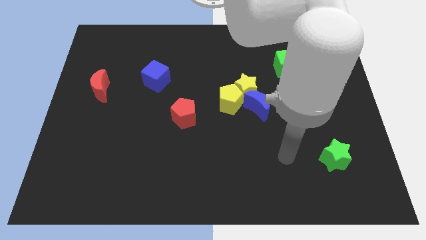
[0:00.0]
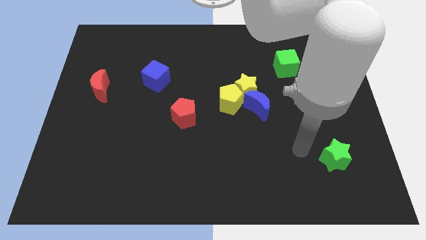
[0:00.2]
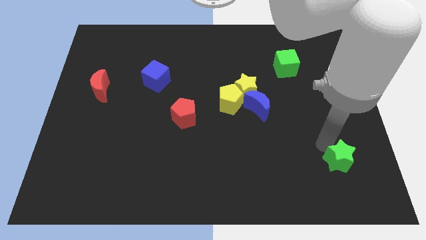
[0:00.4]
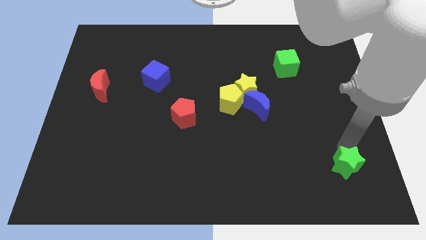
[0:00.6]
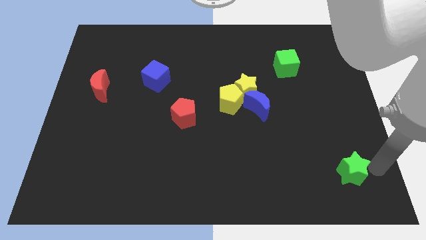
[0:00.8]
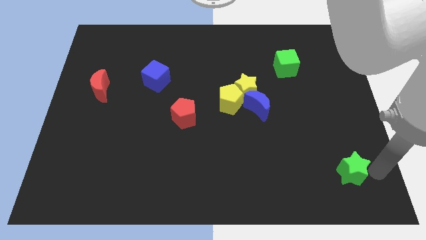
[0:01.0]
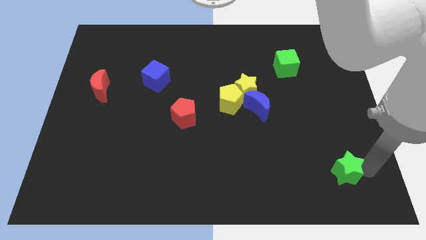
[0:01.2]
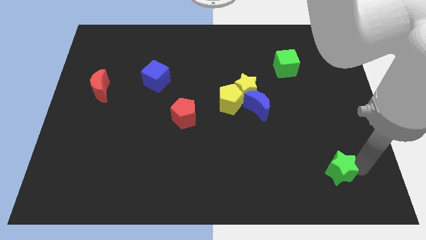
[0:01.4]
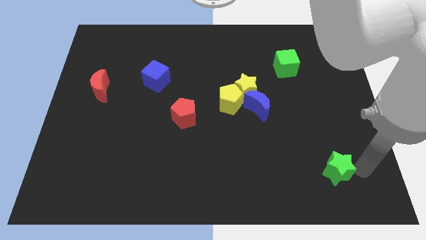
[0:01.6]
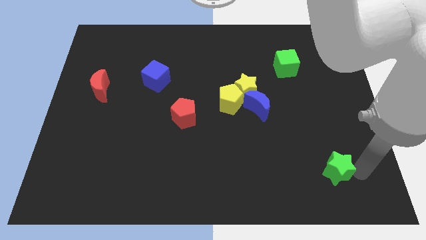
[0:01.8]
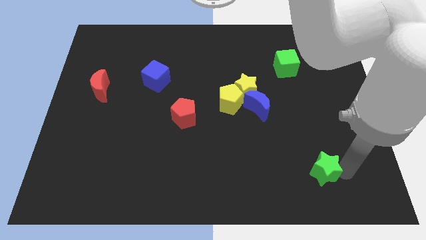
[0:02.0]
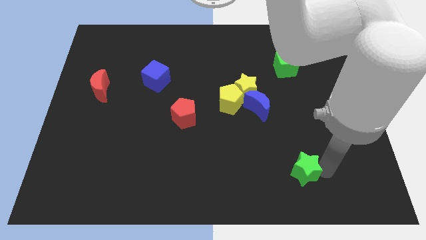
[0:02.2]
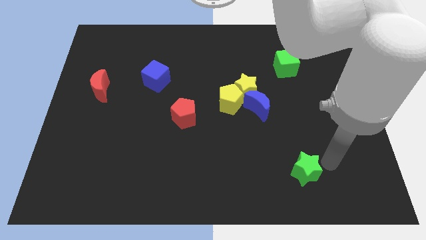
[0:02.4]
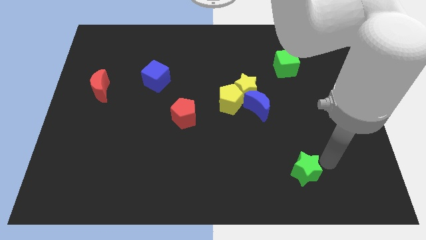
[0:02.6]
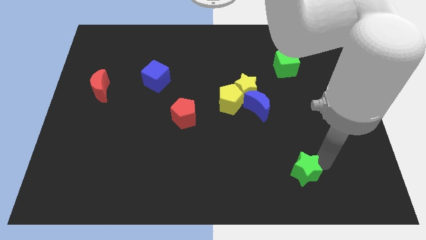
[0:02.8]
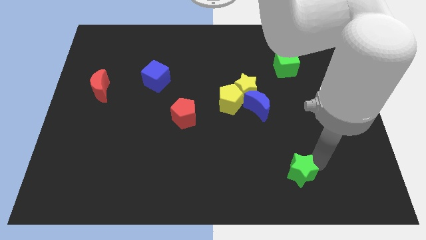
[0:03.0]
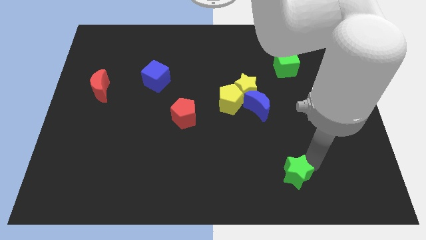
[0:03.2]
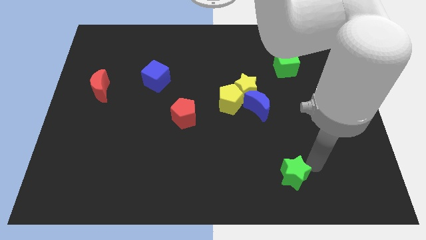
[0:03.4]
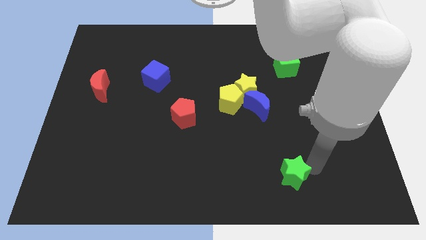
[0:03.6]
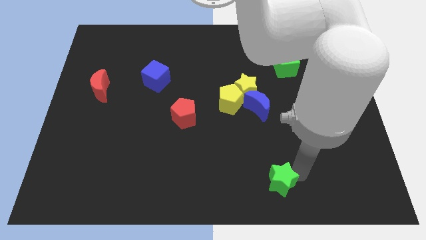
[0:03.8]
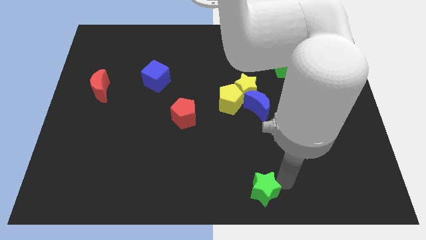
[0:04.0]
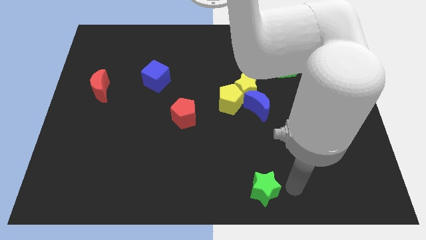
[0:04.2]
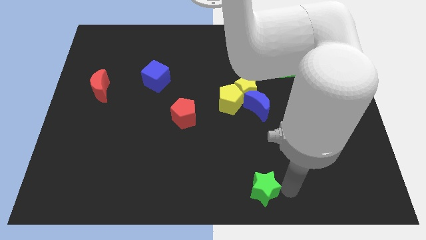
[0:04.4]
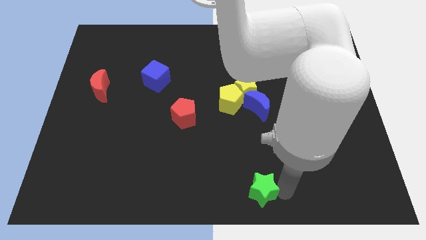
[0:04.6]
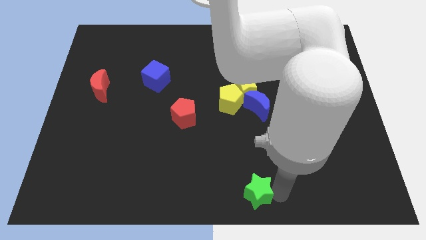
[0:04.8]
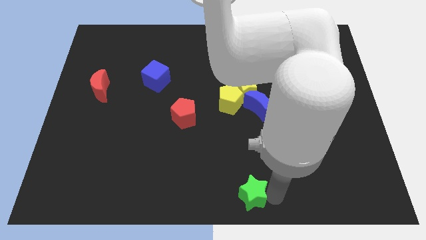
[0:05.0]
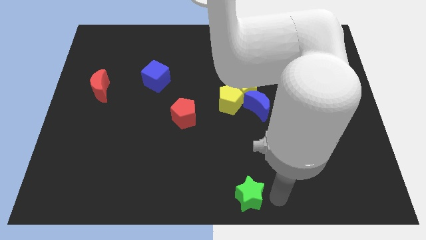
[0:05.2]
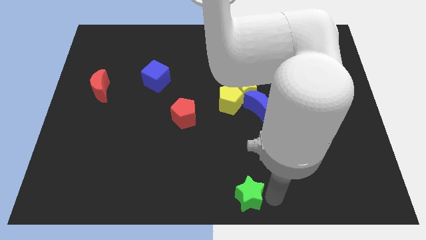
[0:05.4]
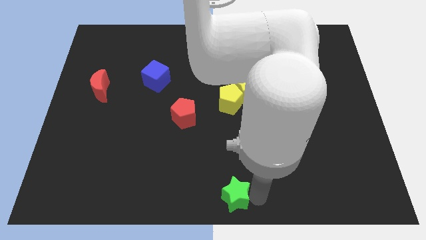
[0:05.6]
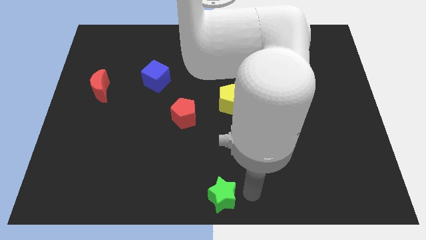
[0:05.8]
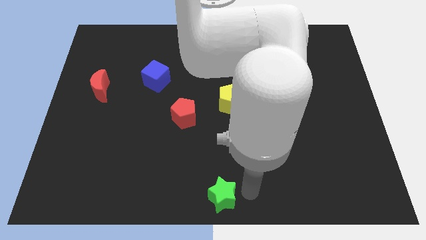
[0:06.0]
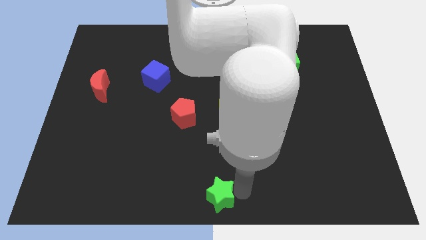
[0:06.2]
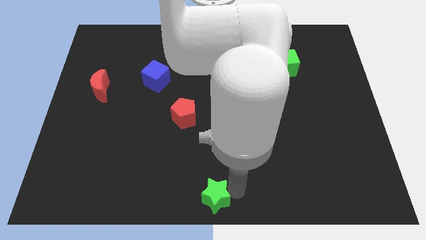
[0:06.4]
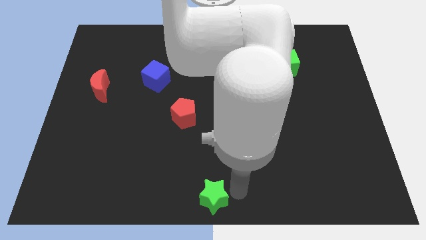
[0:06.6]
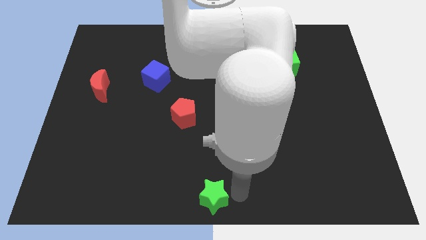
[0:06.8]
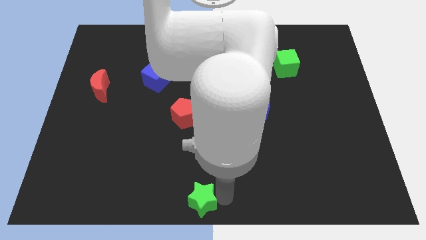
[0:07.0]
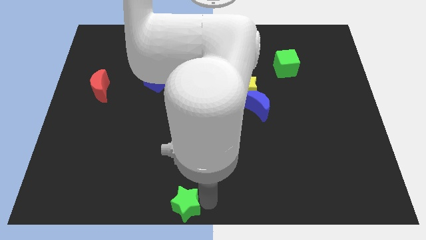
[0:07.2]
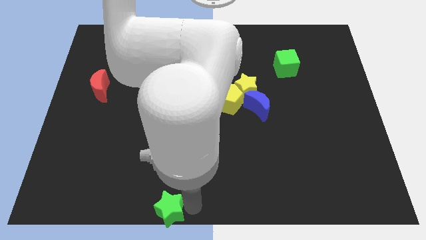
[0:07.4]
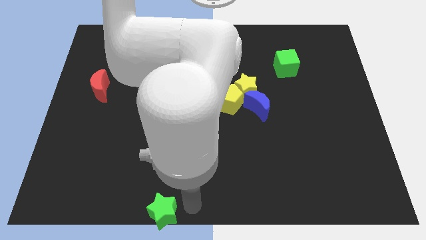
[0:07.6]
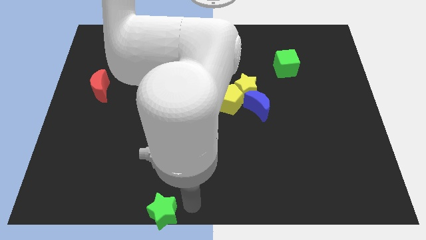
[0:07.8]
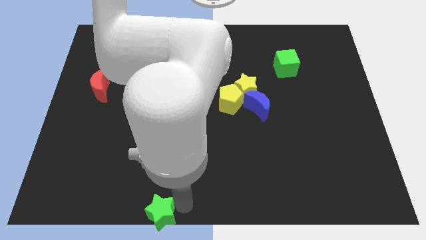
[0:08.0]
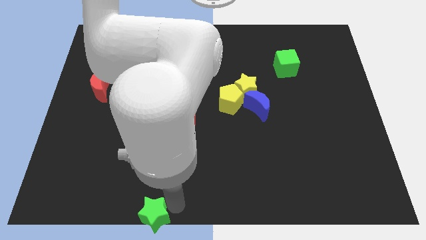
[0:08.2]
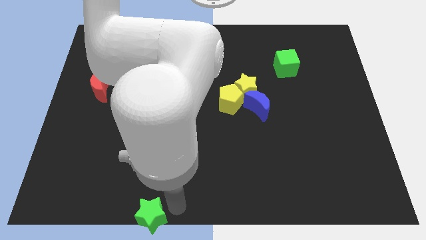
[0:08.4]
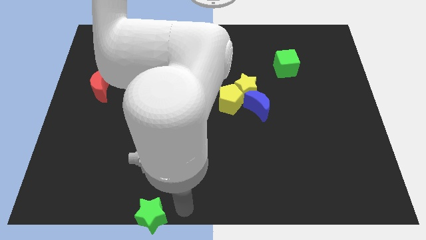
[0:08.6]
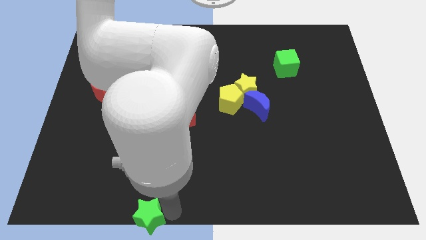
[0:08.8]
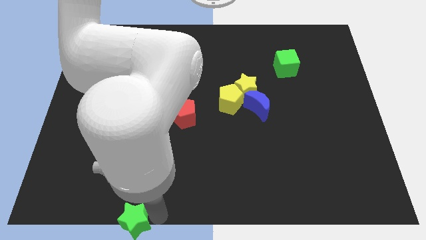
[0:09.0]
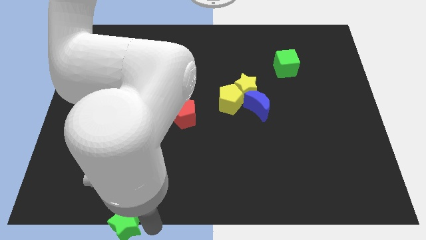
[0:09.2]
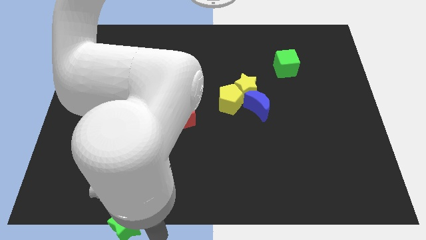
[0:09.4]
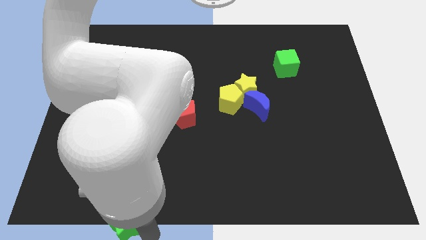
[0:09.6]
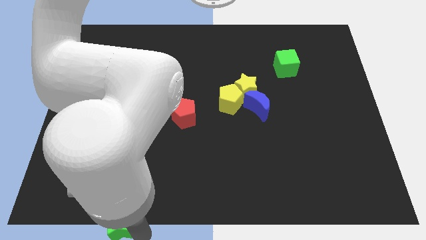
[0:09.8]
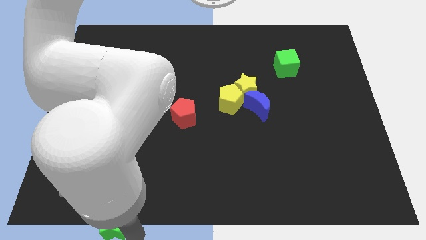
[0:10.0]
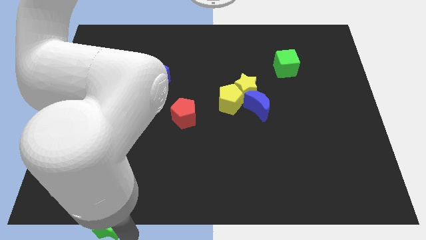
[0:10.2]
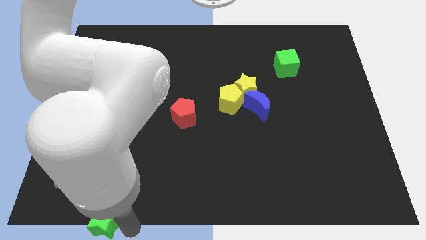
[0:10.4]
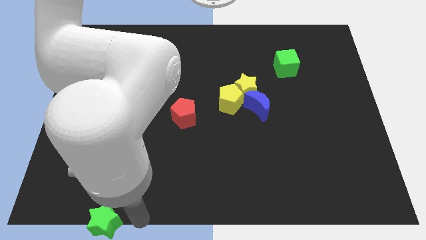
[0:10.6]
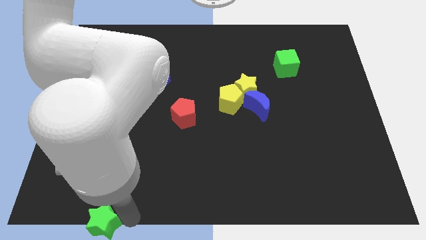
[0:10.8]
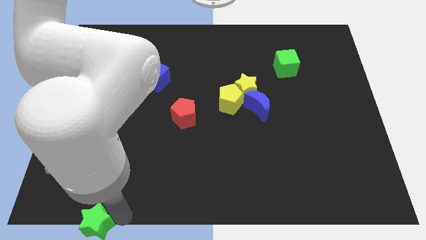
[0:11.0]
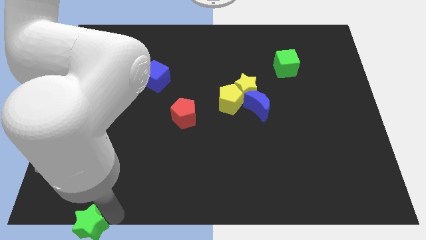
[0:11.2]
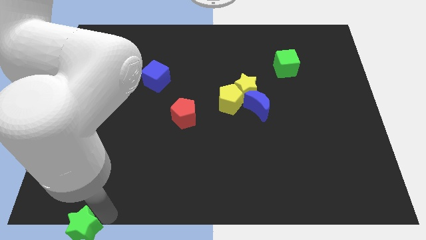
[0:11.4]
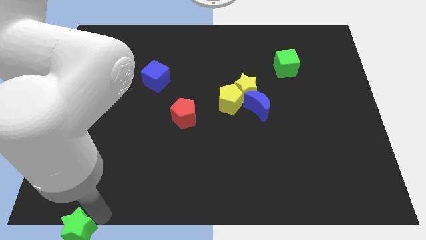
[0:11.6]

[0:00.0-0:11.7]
move the green star to the bottom left corner
